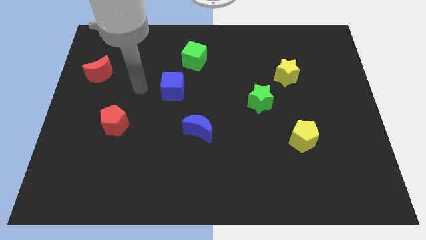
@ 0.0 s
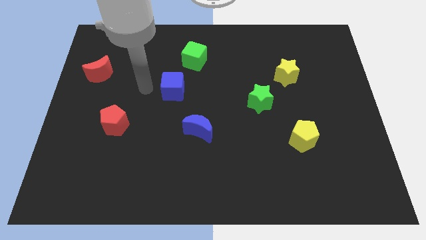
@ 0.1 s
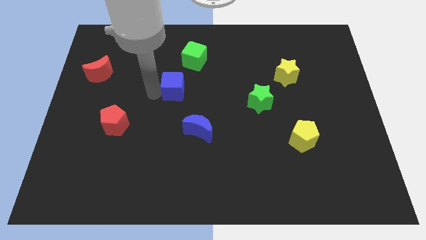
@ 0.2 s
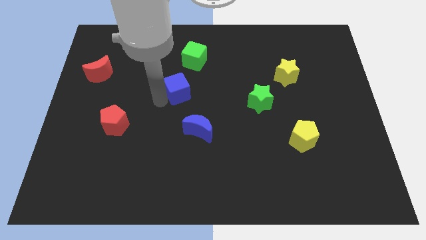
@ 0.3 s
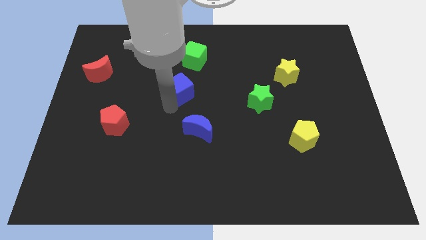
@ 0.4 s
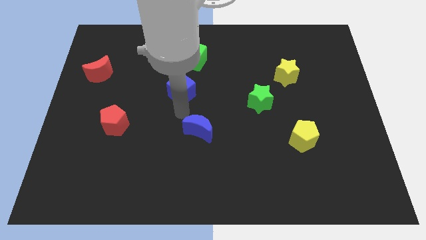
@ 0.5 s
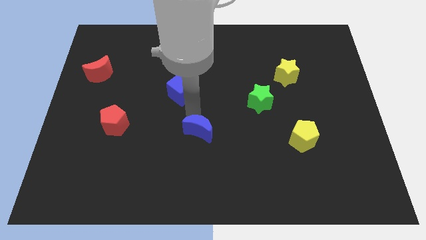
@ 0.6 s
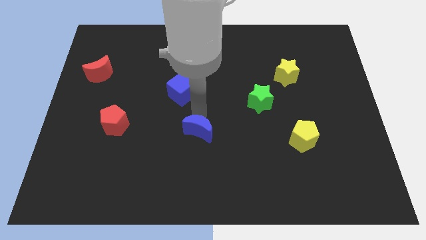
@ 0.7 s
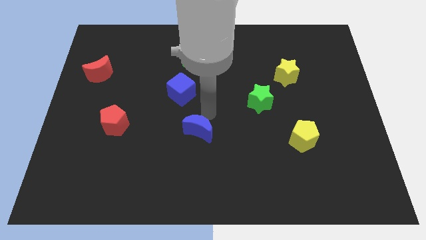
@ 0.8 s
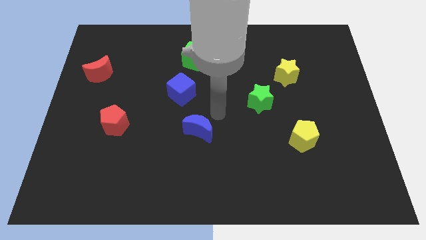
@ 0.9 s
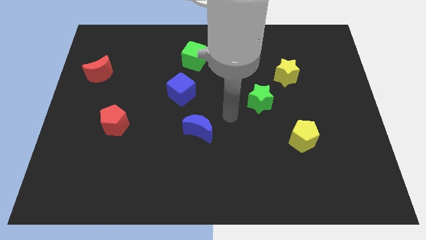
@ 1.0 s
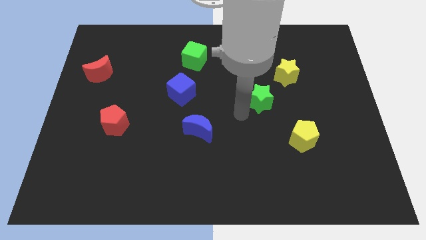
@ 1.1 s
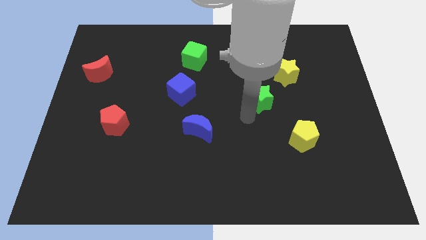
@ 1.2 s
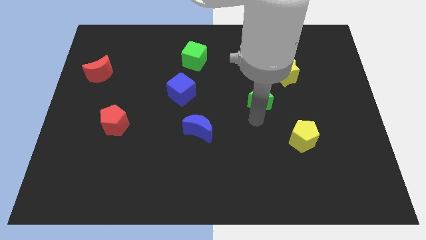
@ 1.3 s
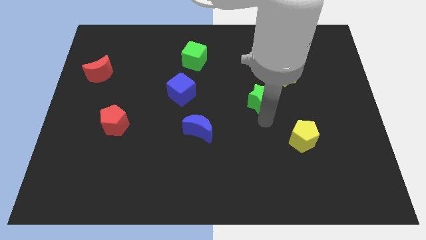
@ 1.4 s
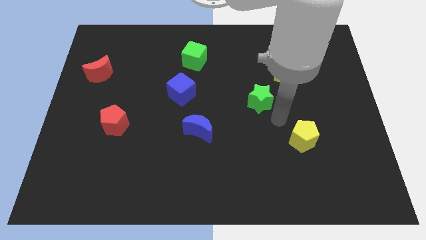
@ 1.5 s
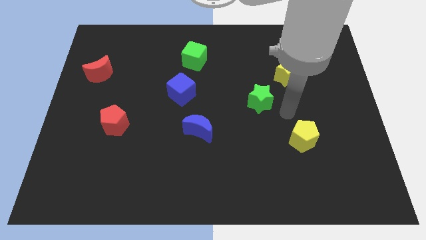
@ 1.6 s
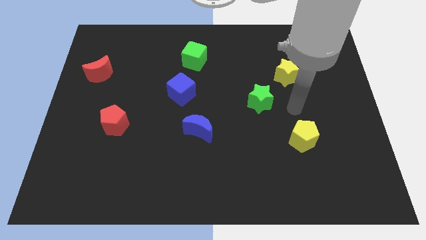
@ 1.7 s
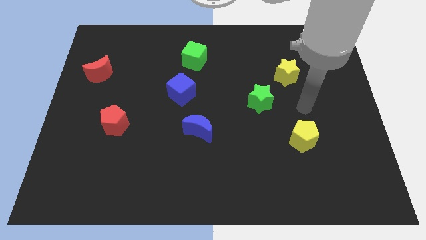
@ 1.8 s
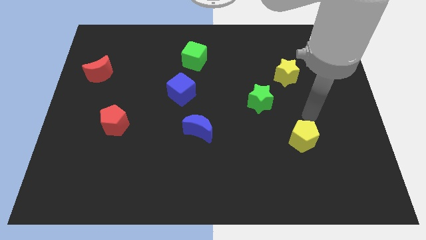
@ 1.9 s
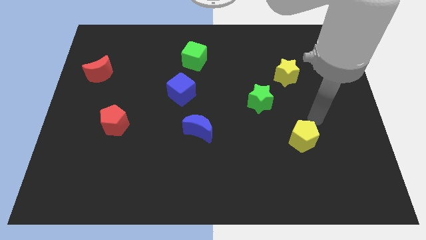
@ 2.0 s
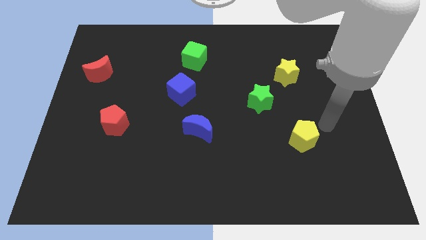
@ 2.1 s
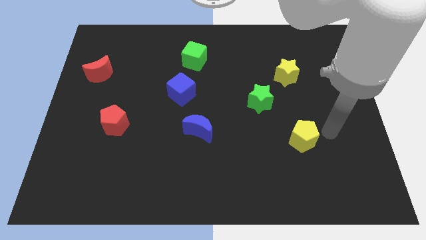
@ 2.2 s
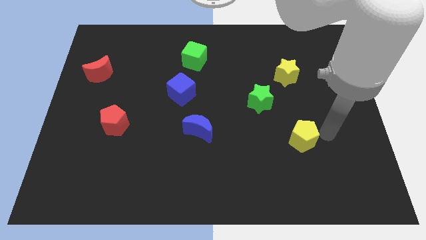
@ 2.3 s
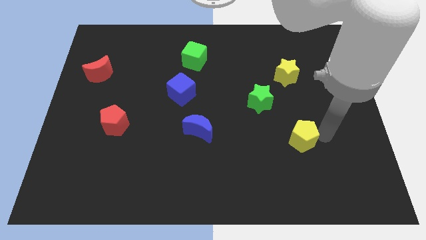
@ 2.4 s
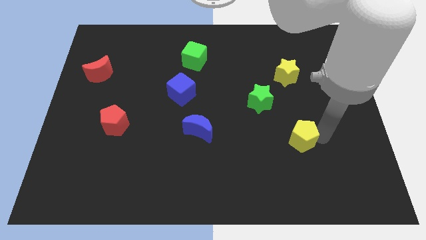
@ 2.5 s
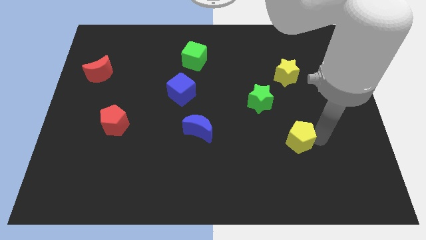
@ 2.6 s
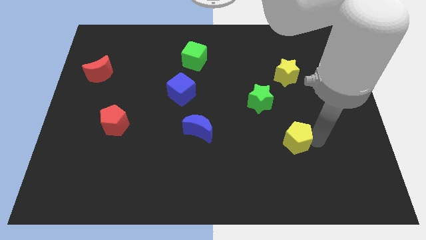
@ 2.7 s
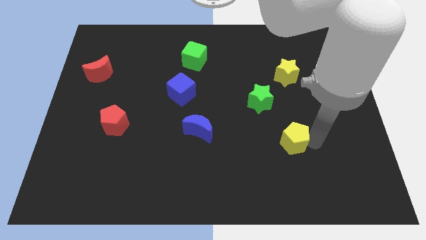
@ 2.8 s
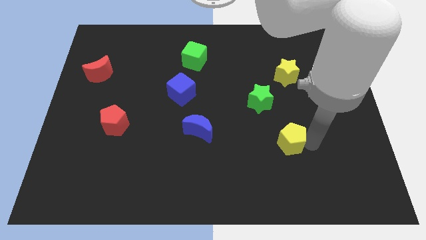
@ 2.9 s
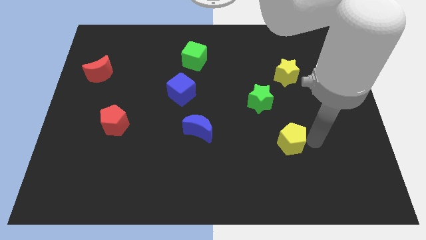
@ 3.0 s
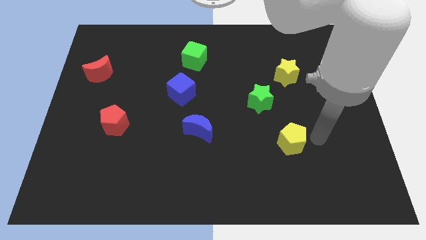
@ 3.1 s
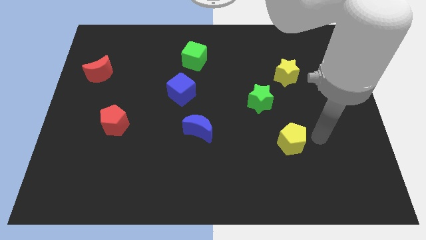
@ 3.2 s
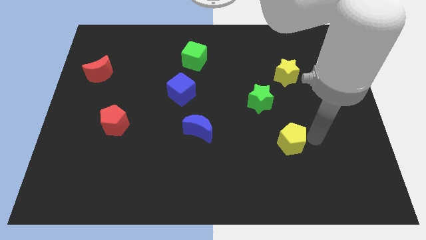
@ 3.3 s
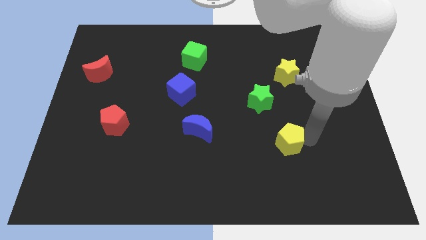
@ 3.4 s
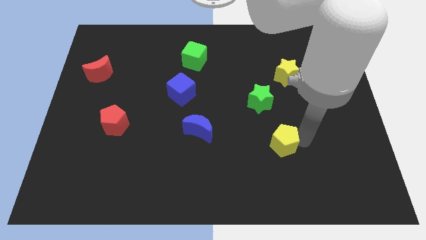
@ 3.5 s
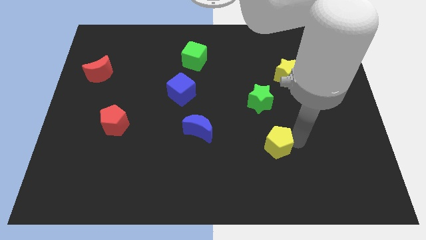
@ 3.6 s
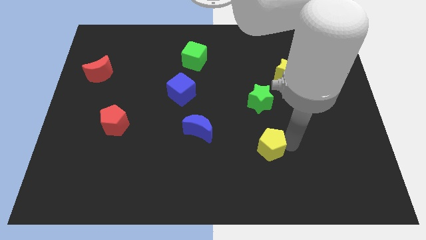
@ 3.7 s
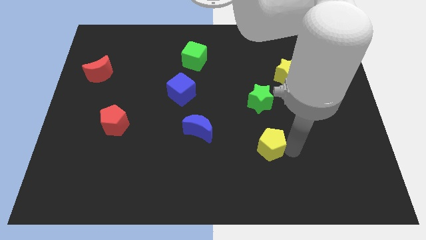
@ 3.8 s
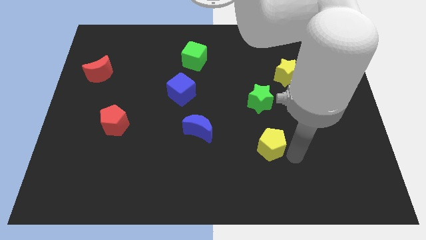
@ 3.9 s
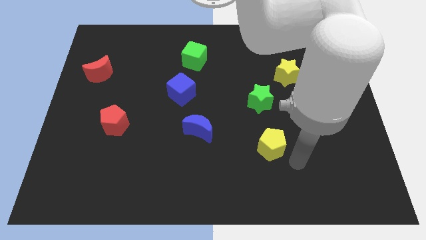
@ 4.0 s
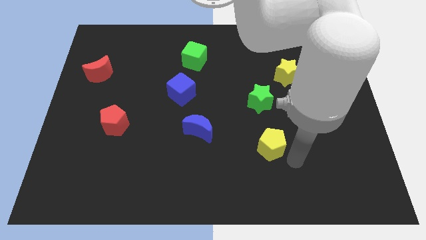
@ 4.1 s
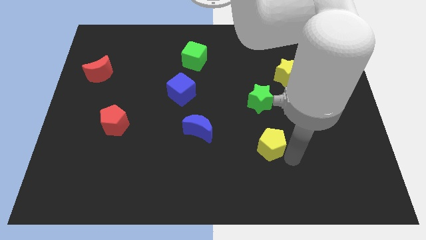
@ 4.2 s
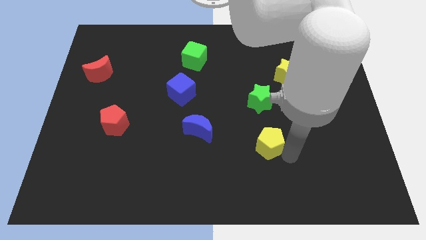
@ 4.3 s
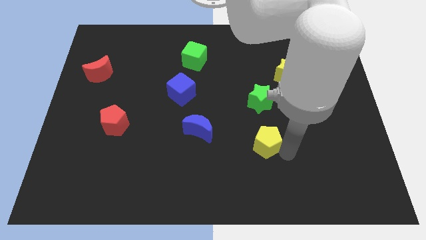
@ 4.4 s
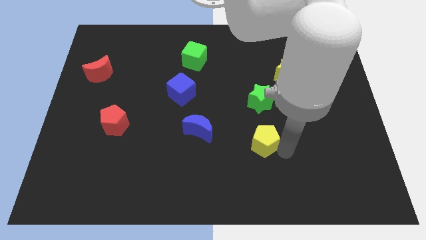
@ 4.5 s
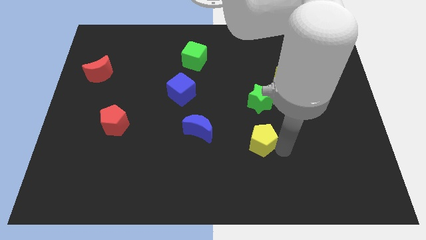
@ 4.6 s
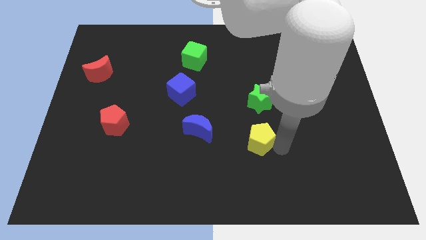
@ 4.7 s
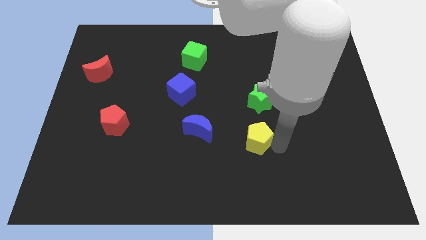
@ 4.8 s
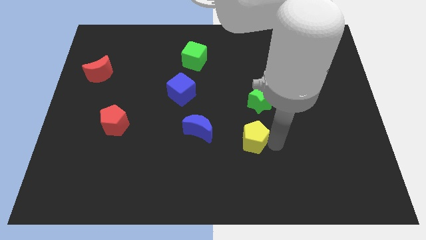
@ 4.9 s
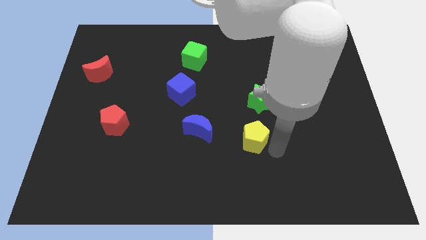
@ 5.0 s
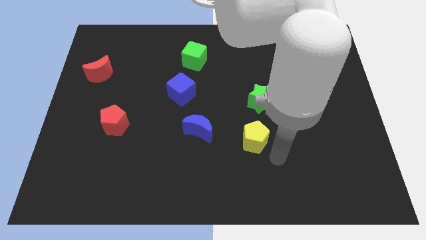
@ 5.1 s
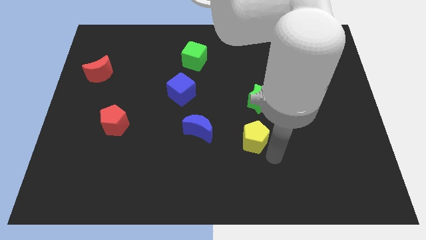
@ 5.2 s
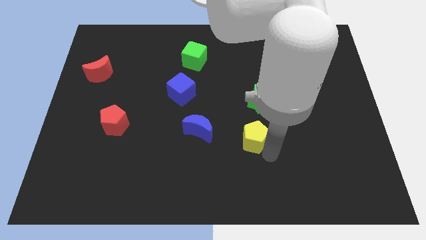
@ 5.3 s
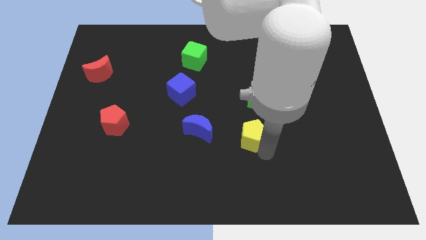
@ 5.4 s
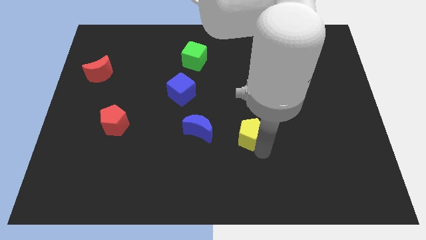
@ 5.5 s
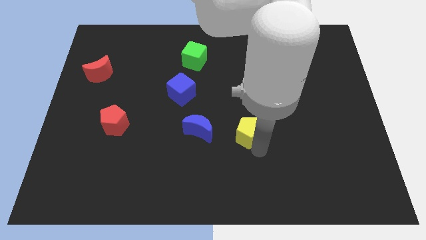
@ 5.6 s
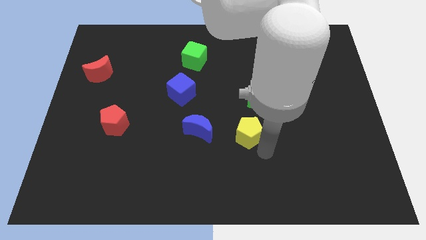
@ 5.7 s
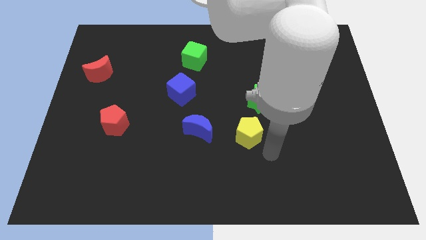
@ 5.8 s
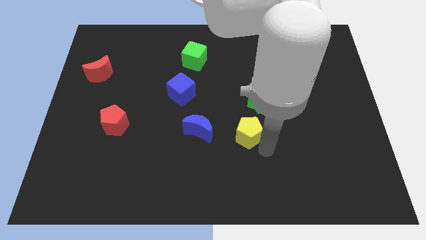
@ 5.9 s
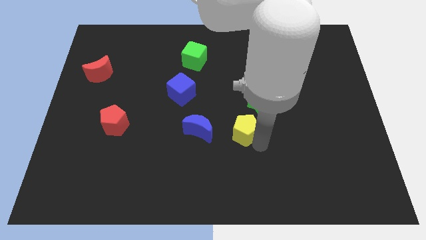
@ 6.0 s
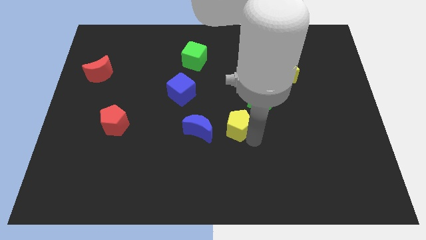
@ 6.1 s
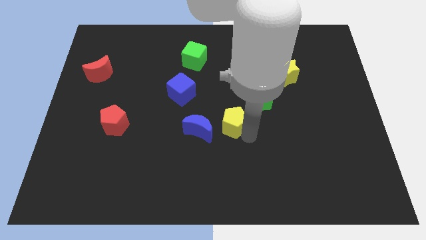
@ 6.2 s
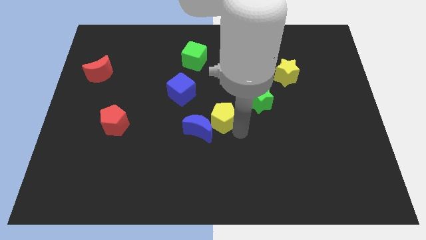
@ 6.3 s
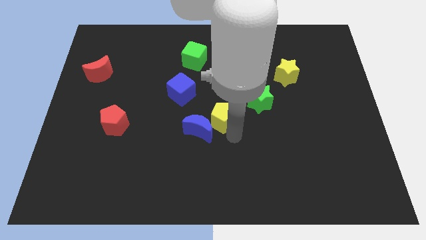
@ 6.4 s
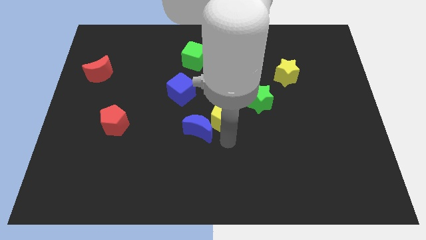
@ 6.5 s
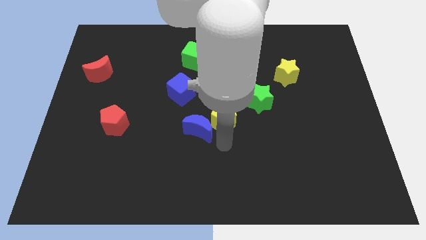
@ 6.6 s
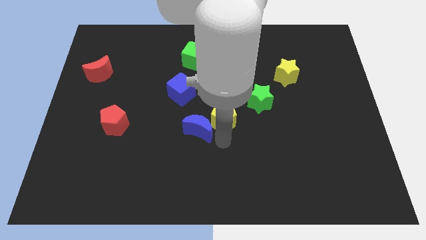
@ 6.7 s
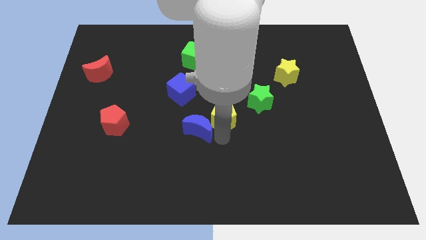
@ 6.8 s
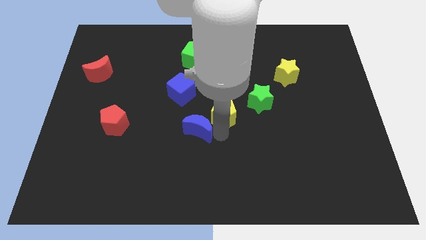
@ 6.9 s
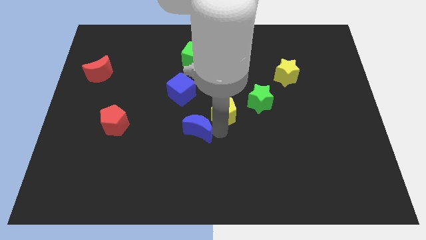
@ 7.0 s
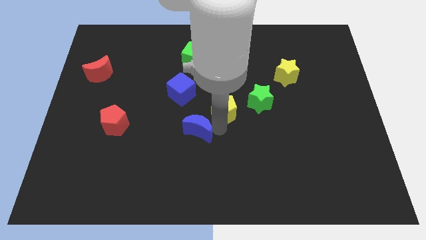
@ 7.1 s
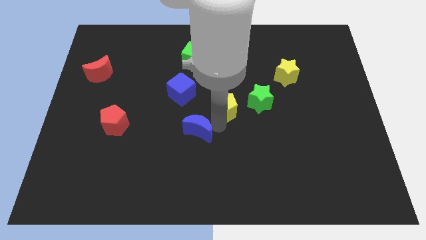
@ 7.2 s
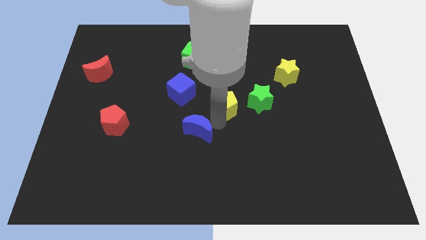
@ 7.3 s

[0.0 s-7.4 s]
push the yellow pentagon right of the blue cube

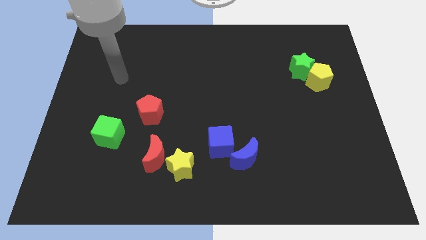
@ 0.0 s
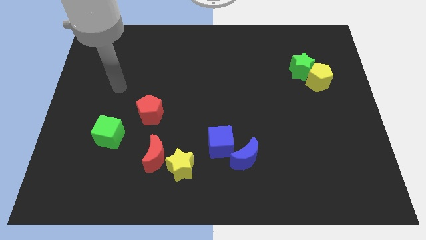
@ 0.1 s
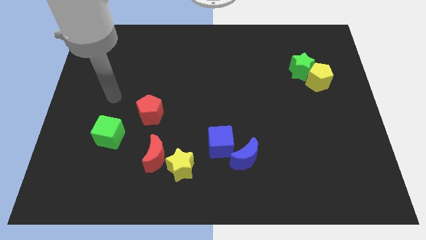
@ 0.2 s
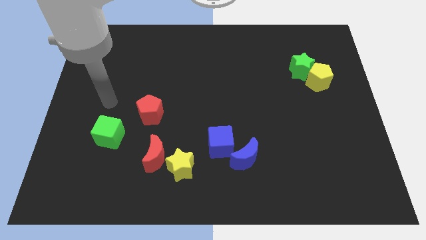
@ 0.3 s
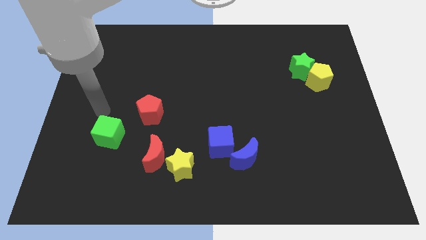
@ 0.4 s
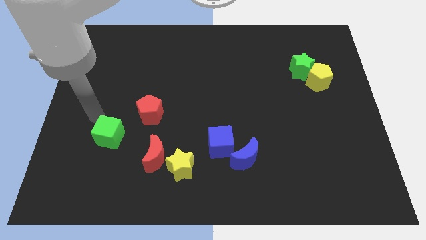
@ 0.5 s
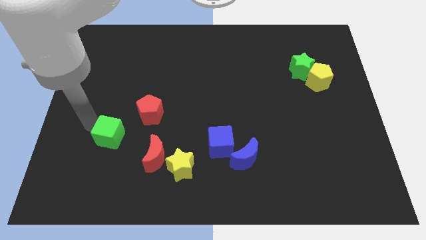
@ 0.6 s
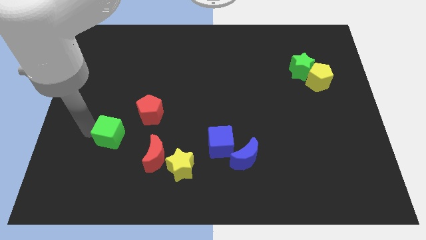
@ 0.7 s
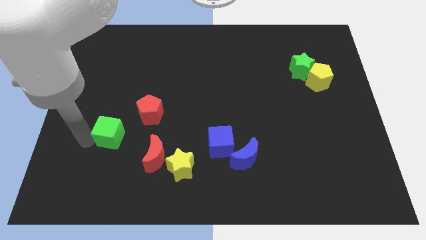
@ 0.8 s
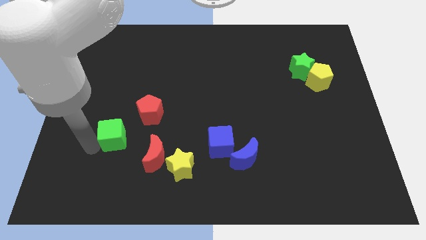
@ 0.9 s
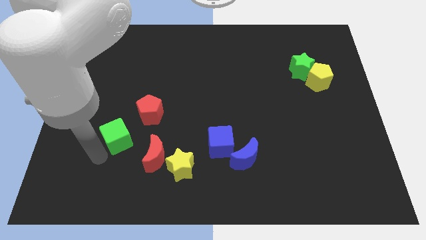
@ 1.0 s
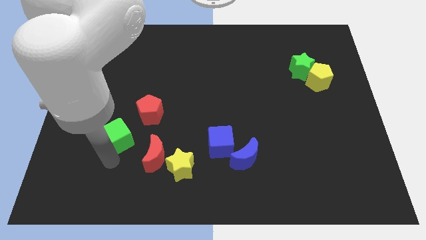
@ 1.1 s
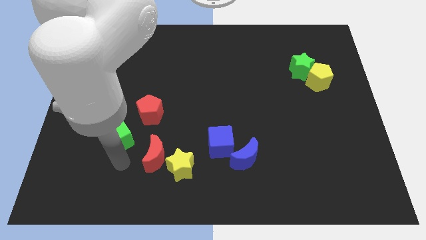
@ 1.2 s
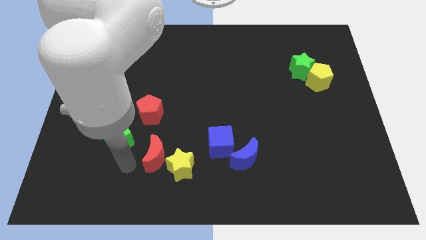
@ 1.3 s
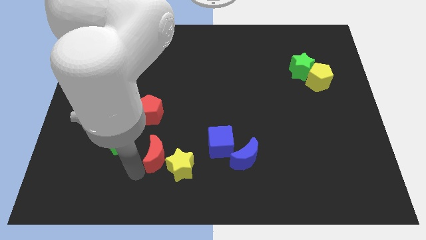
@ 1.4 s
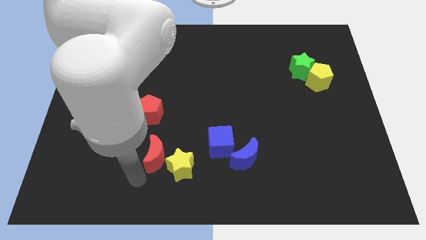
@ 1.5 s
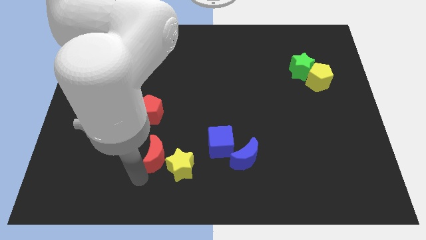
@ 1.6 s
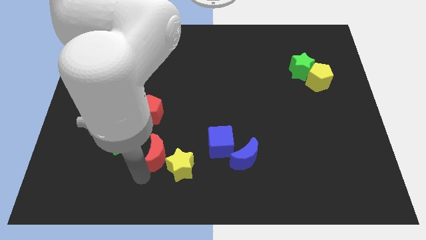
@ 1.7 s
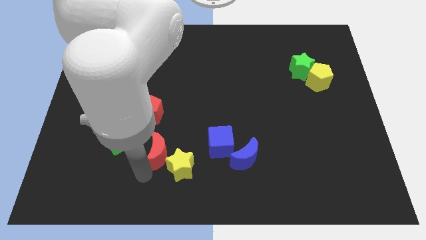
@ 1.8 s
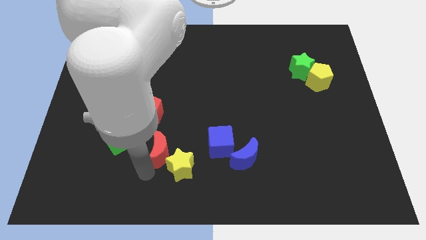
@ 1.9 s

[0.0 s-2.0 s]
put the red moon to the top side of the yellow star
